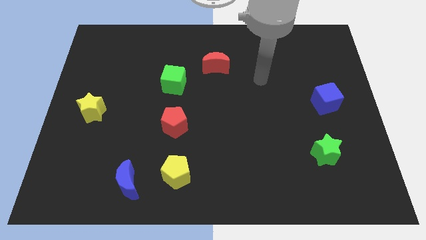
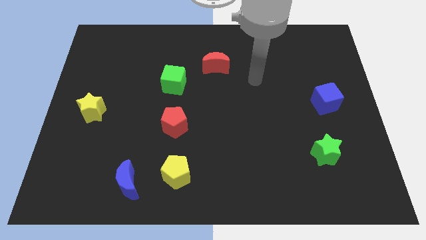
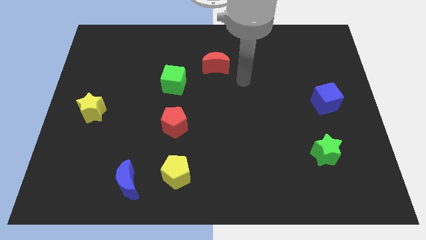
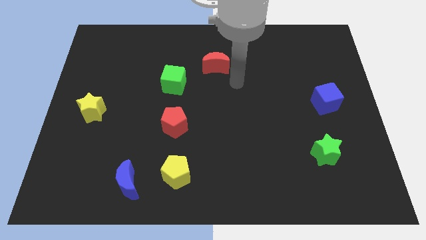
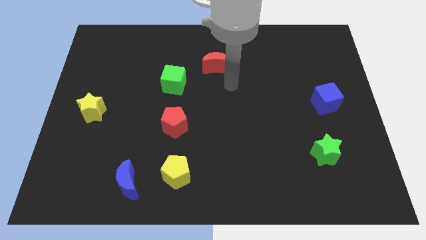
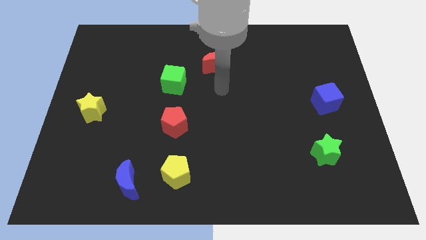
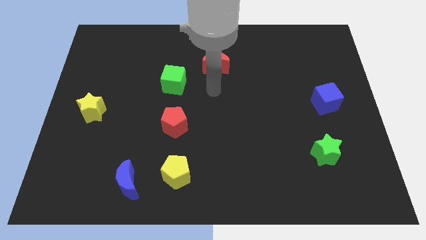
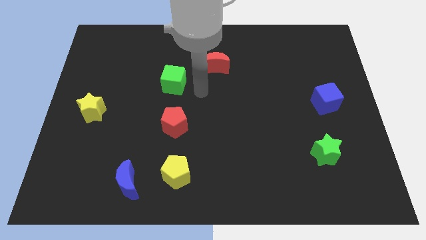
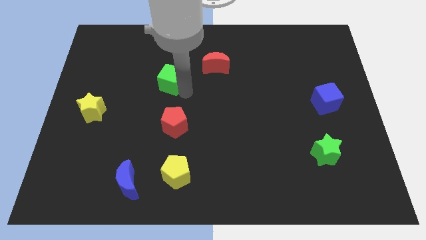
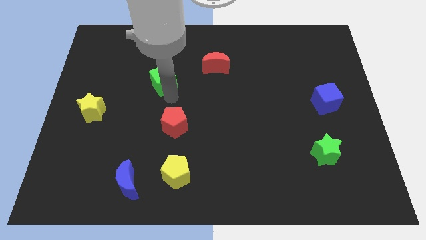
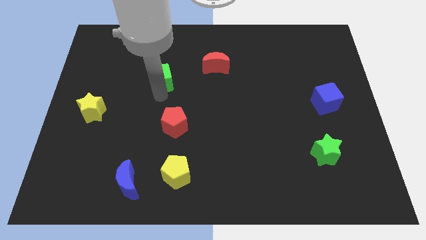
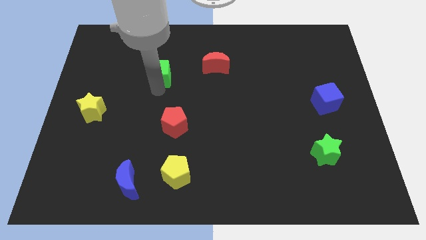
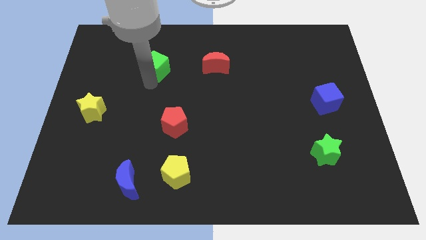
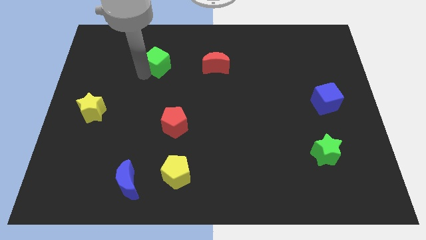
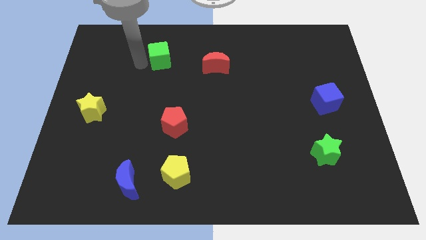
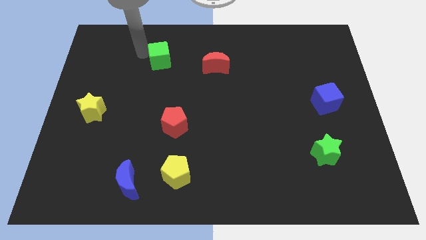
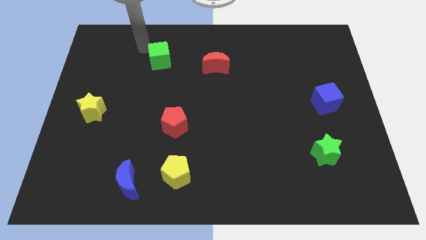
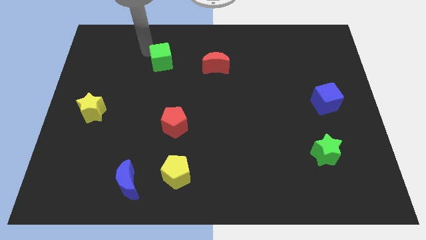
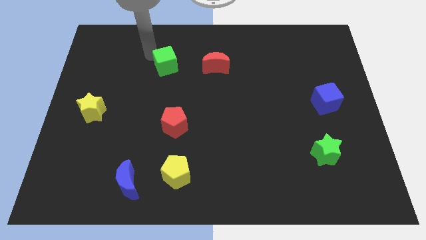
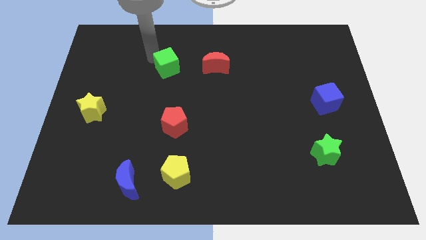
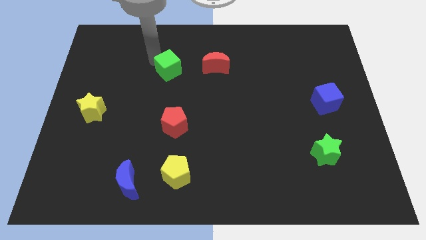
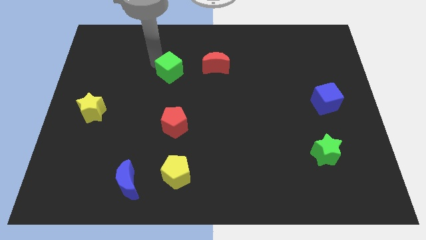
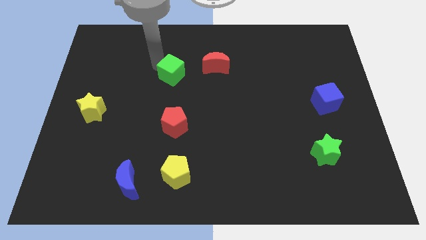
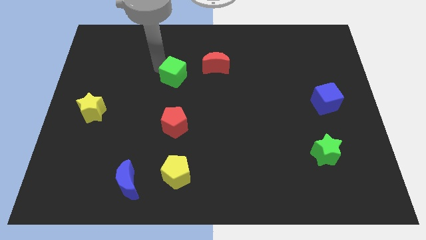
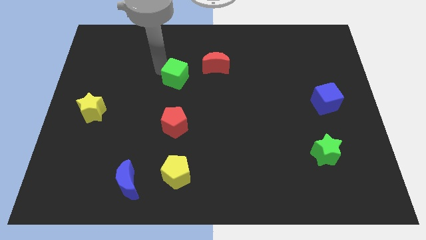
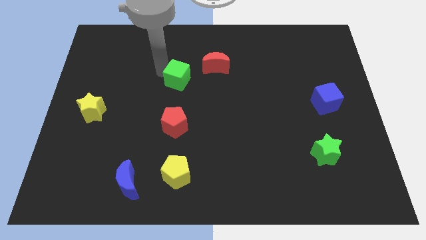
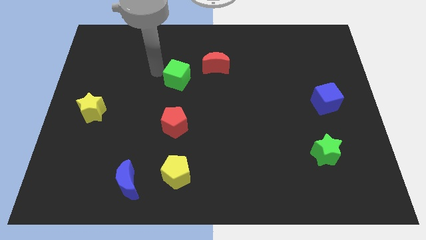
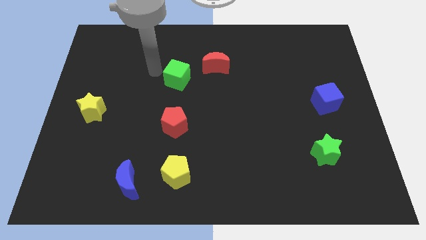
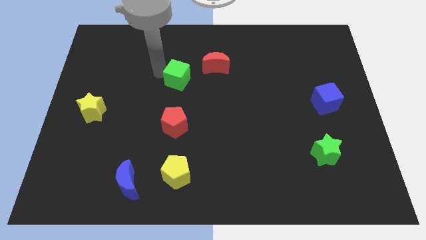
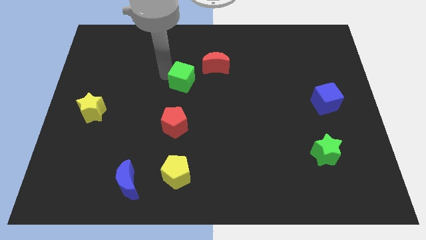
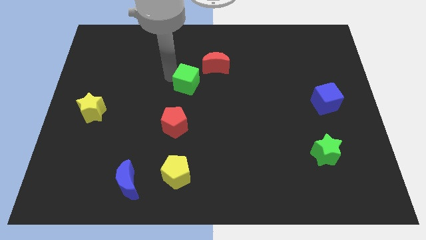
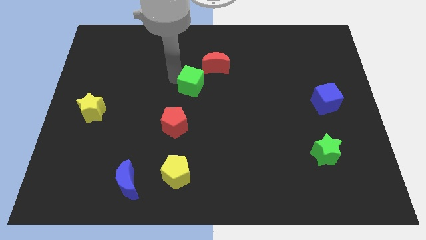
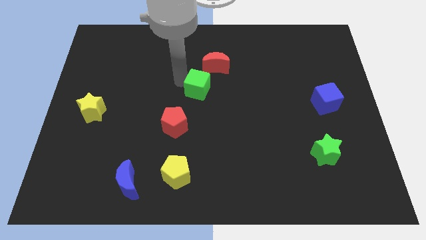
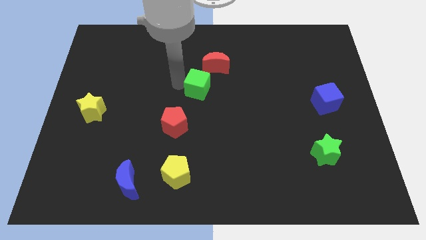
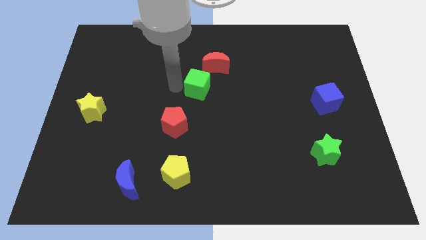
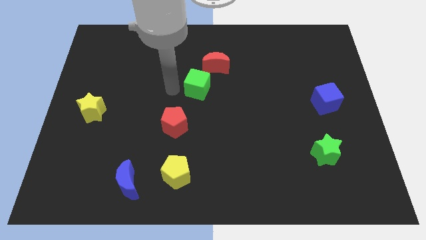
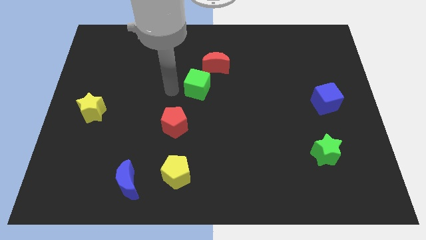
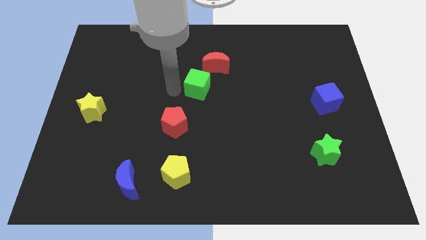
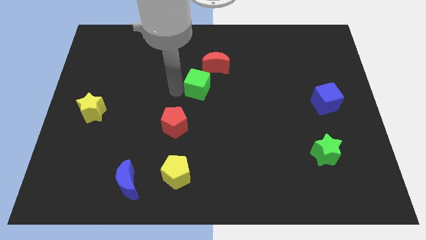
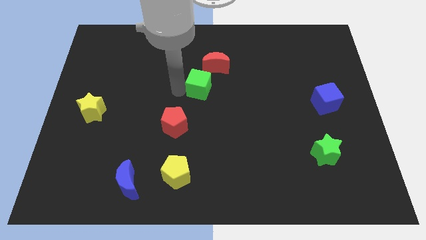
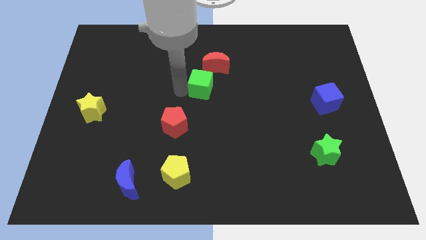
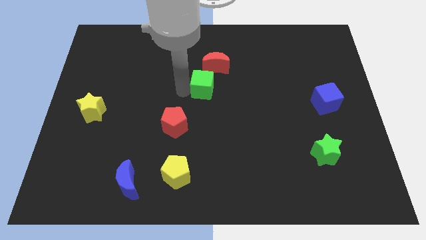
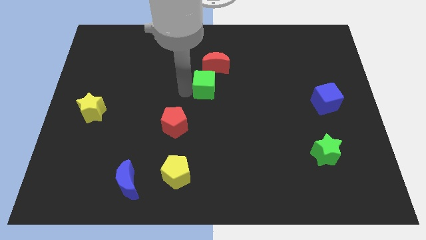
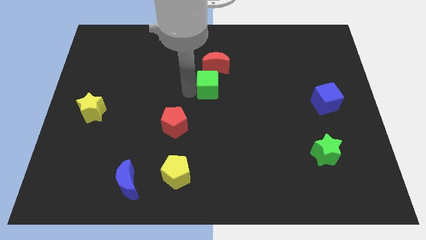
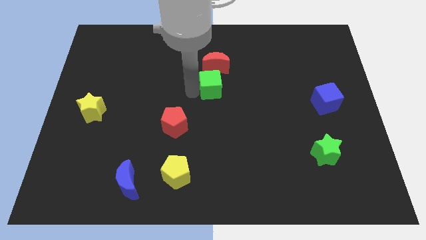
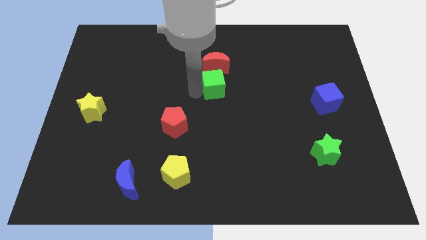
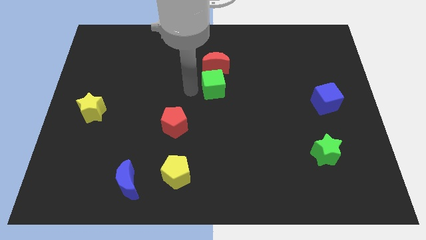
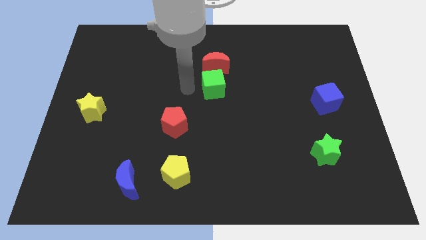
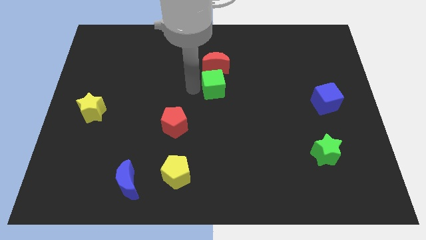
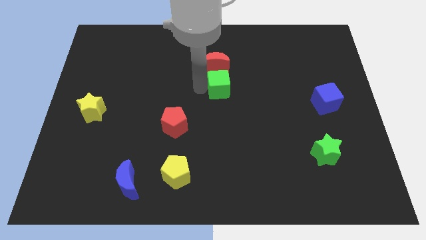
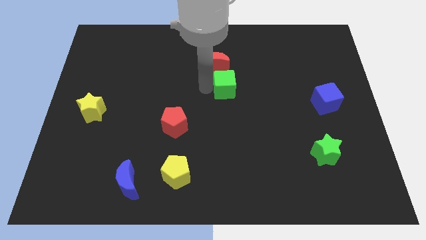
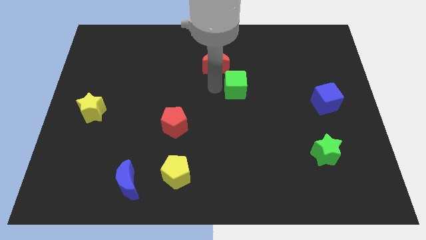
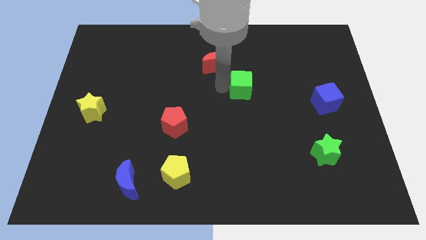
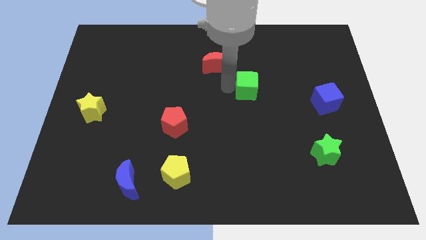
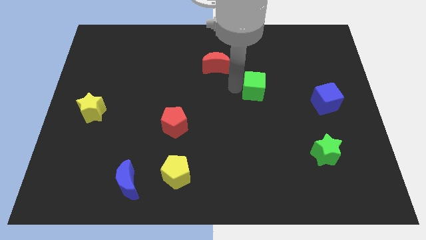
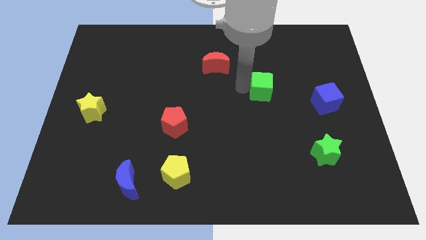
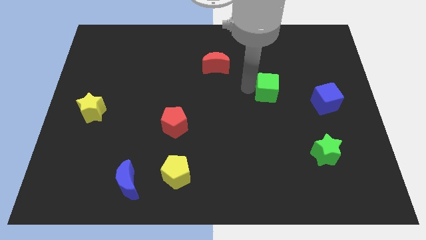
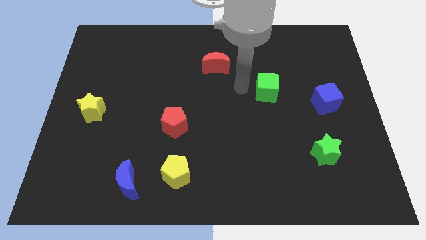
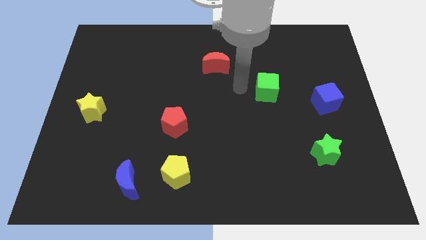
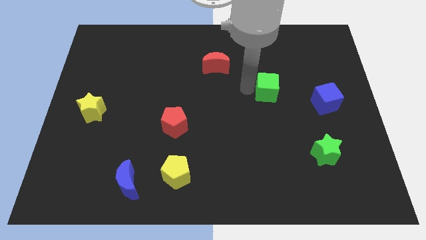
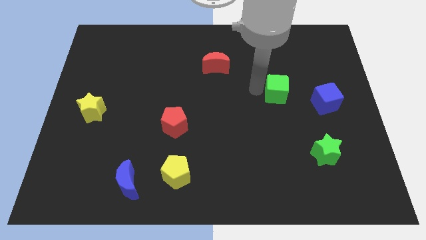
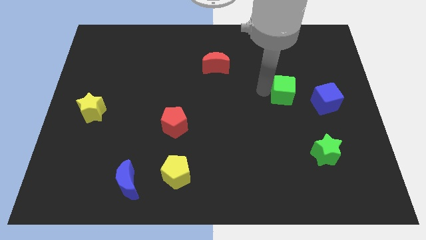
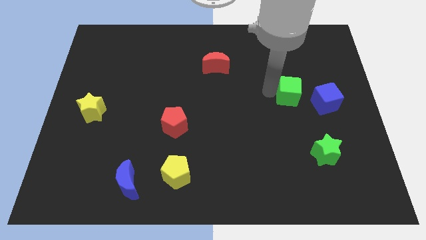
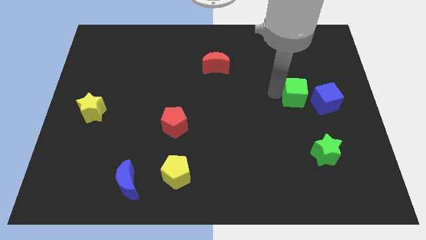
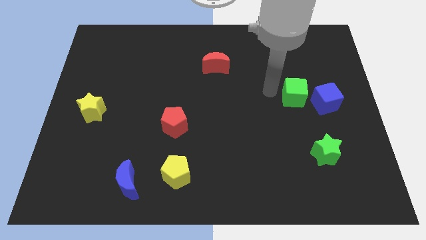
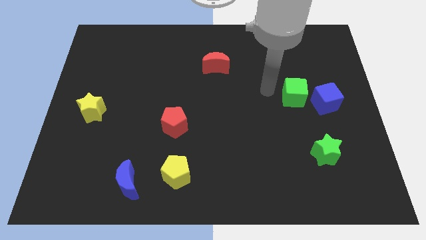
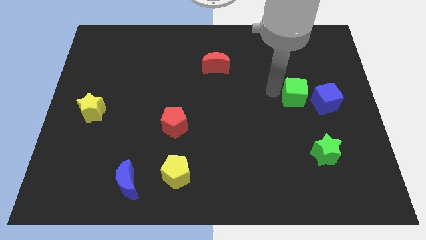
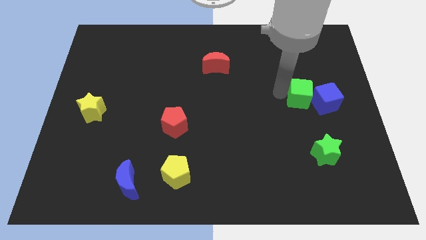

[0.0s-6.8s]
move the green cube next to the blue cube
